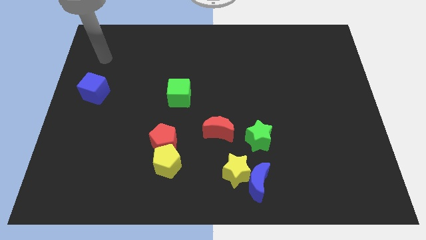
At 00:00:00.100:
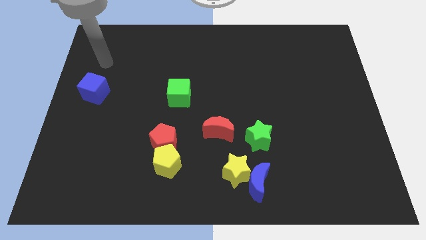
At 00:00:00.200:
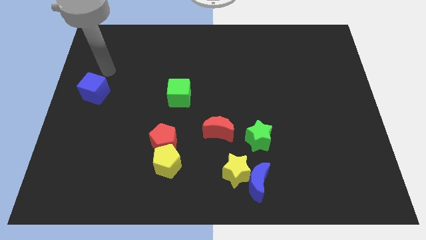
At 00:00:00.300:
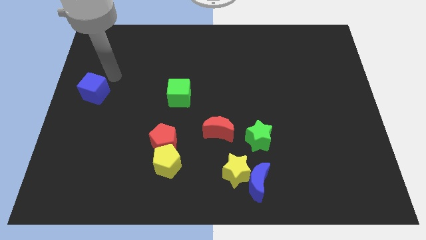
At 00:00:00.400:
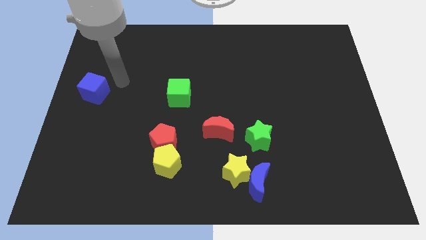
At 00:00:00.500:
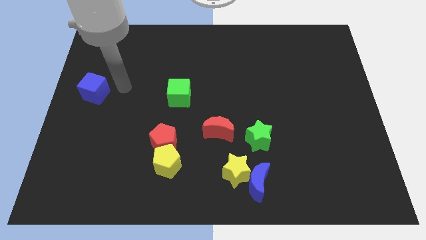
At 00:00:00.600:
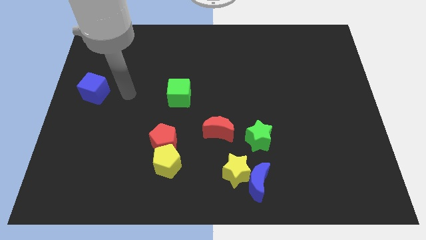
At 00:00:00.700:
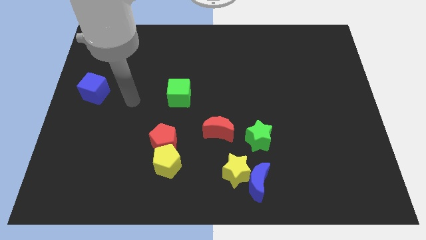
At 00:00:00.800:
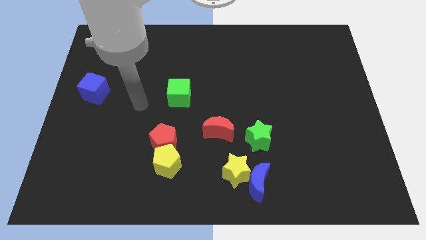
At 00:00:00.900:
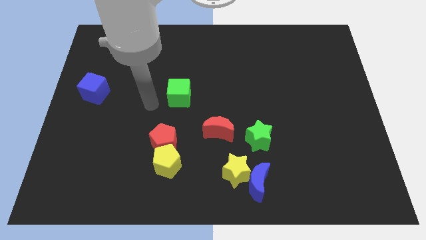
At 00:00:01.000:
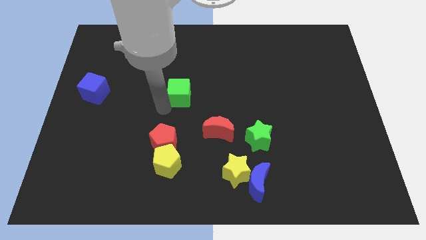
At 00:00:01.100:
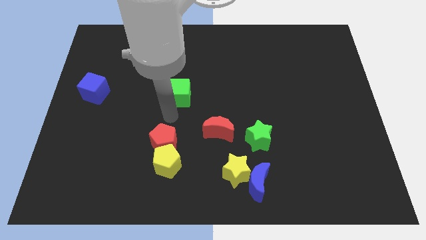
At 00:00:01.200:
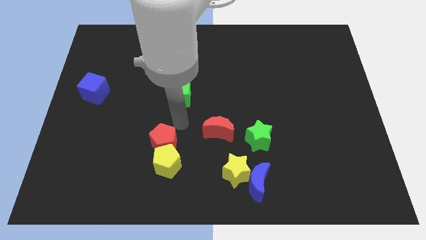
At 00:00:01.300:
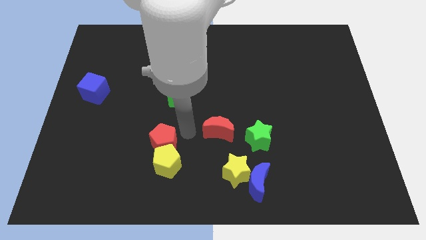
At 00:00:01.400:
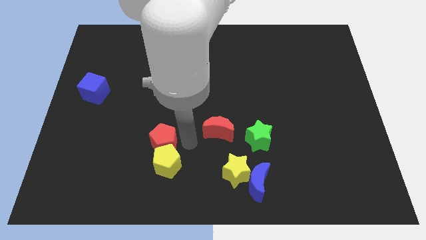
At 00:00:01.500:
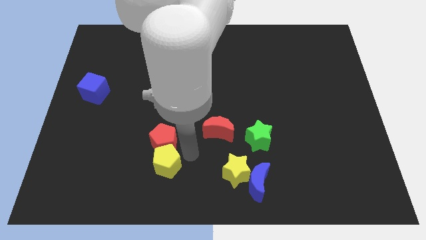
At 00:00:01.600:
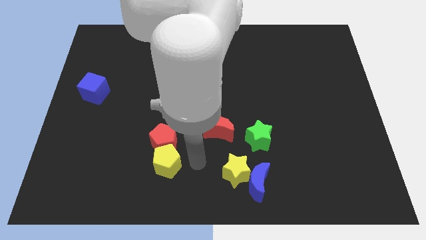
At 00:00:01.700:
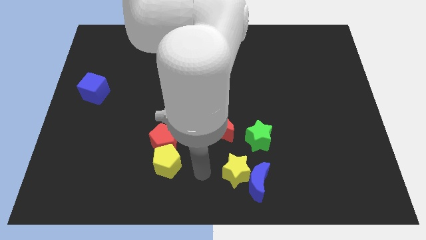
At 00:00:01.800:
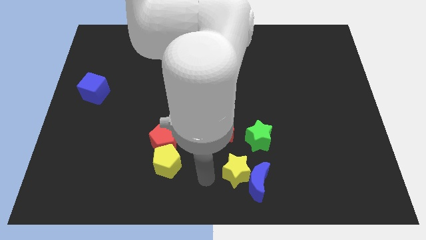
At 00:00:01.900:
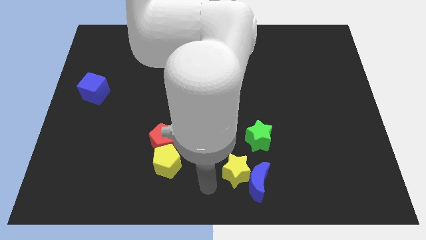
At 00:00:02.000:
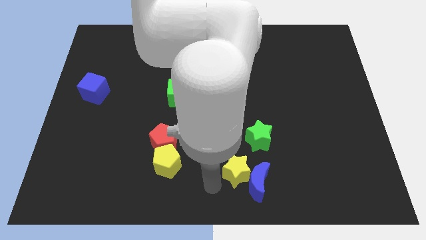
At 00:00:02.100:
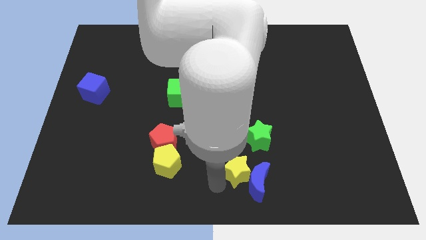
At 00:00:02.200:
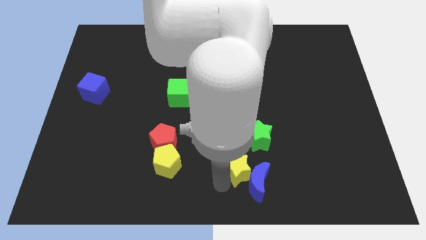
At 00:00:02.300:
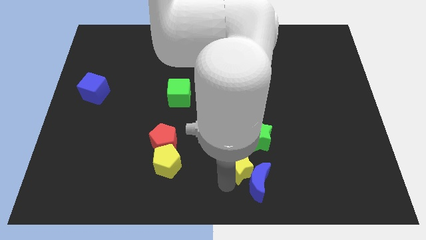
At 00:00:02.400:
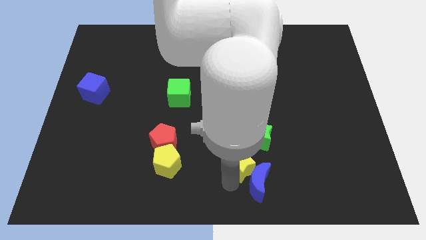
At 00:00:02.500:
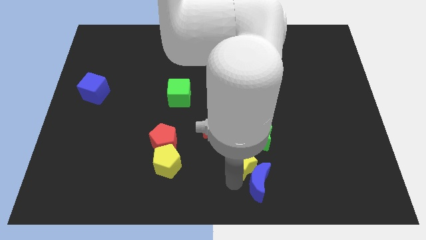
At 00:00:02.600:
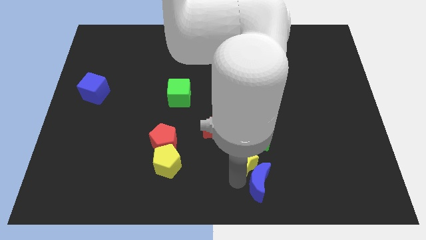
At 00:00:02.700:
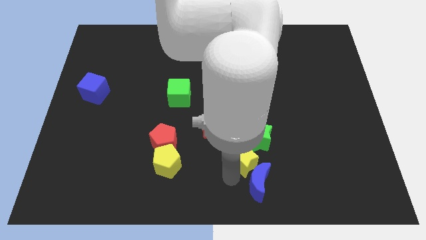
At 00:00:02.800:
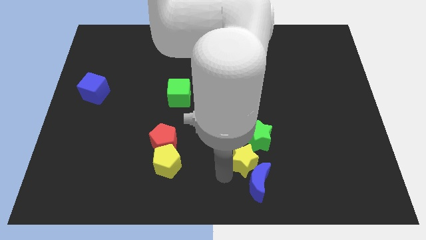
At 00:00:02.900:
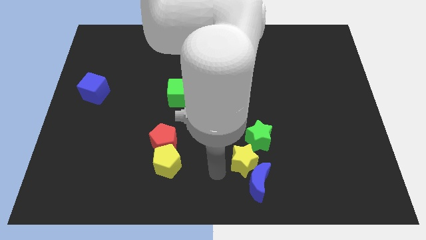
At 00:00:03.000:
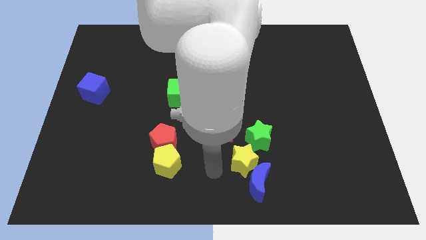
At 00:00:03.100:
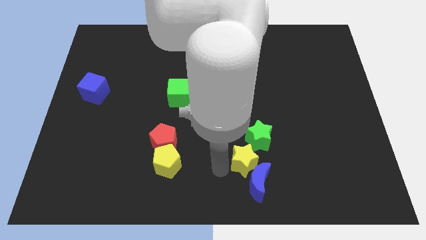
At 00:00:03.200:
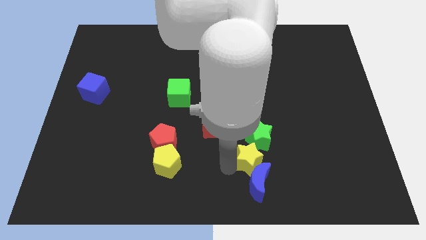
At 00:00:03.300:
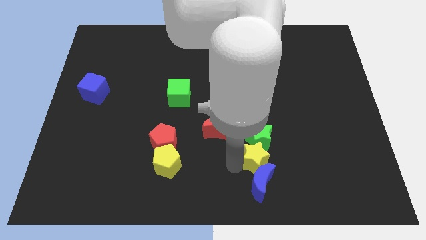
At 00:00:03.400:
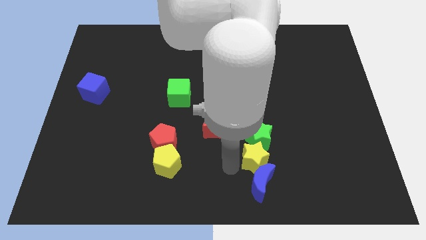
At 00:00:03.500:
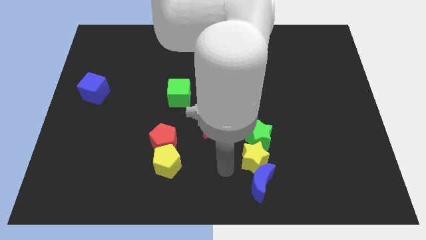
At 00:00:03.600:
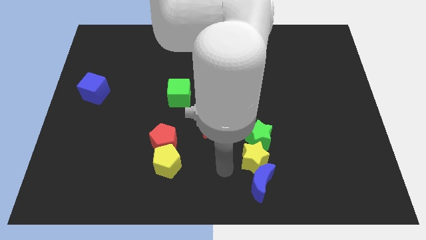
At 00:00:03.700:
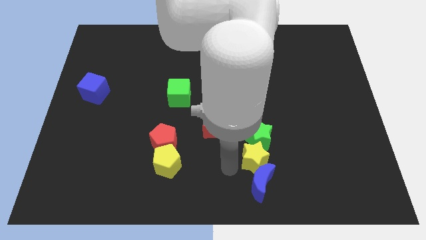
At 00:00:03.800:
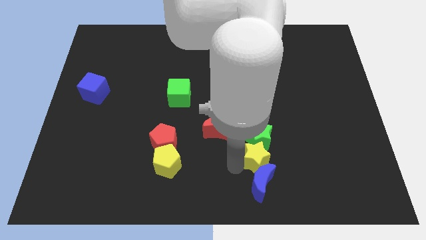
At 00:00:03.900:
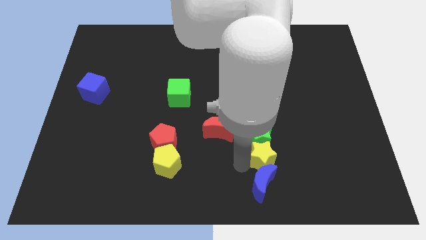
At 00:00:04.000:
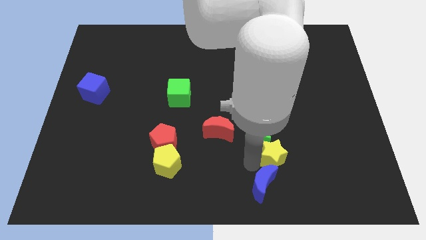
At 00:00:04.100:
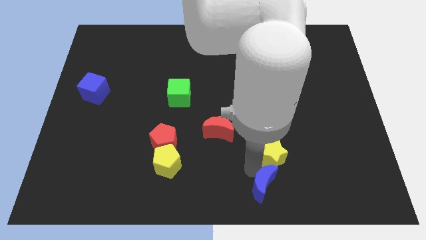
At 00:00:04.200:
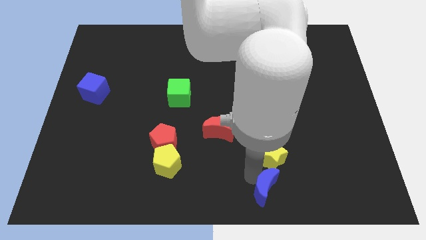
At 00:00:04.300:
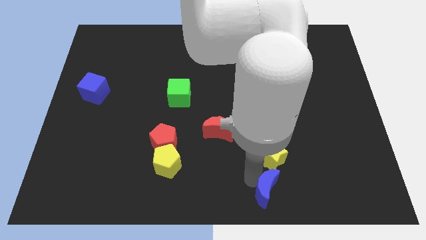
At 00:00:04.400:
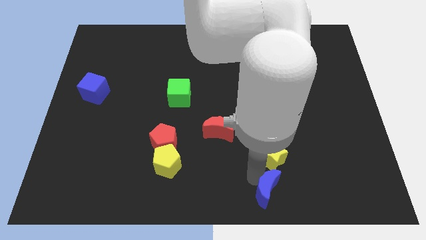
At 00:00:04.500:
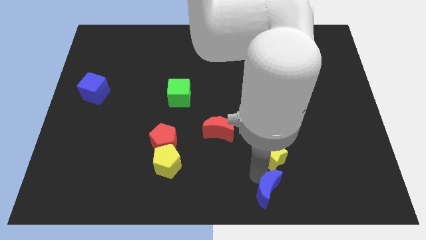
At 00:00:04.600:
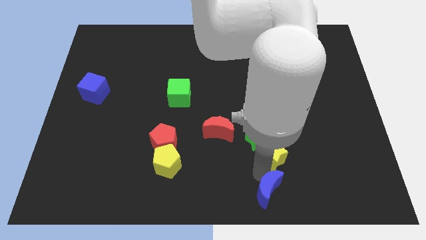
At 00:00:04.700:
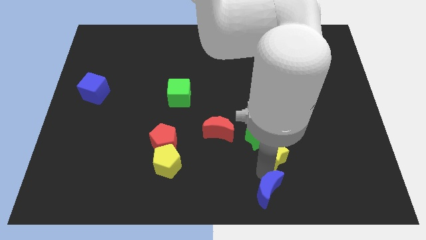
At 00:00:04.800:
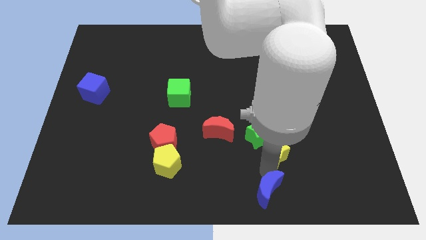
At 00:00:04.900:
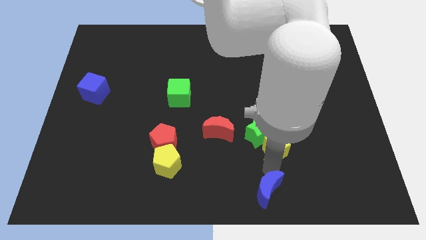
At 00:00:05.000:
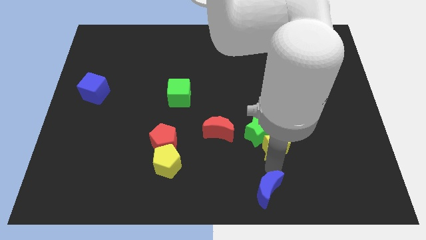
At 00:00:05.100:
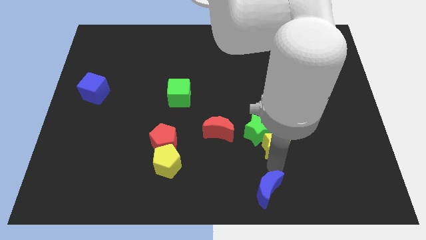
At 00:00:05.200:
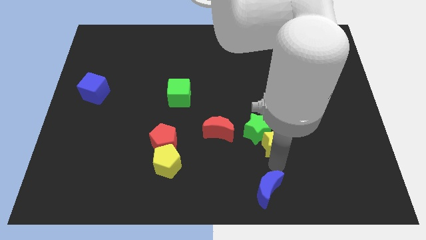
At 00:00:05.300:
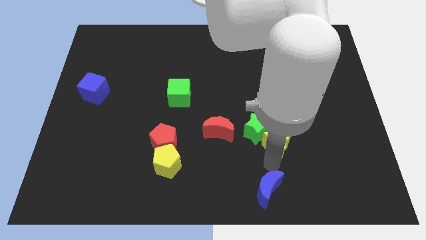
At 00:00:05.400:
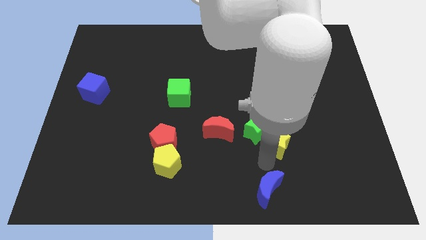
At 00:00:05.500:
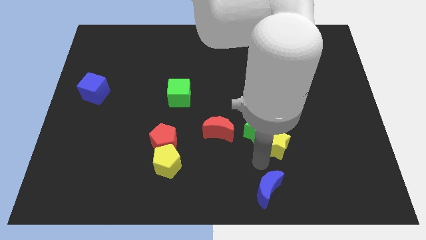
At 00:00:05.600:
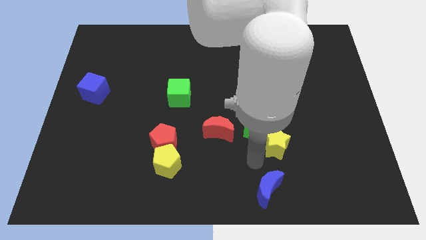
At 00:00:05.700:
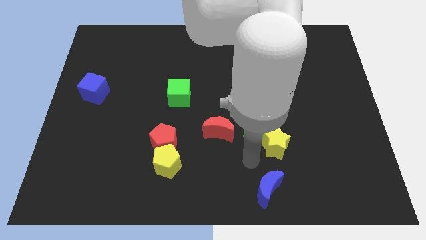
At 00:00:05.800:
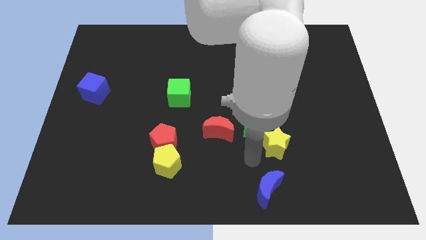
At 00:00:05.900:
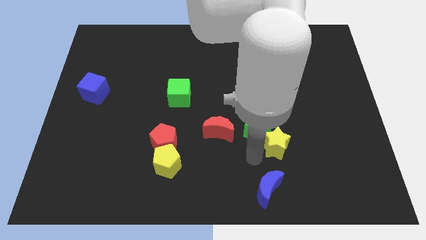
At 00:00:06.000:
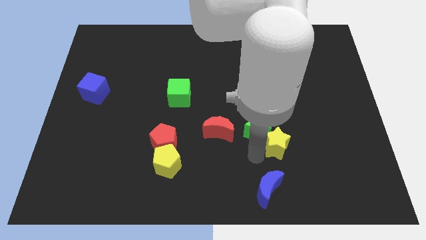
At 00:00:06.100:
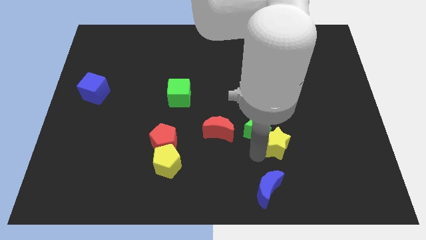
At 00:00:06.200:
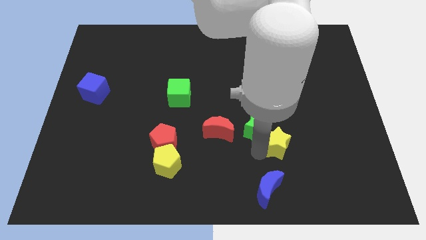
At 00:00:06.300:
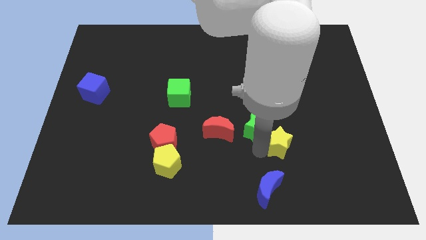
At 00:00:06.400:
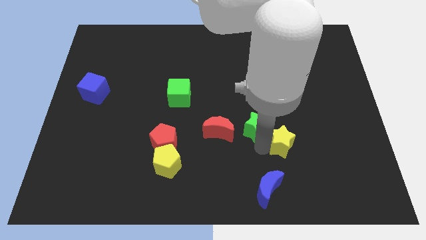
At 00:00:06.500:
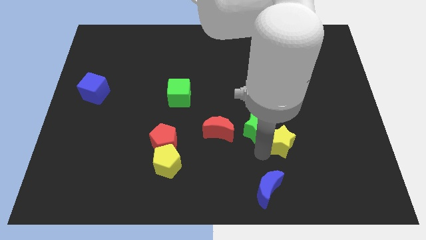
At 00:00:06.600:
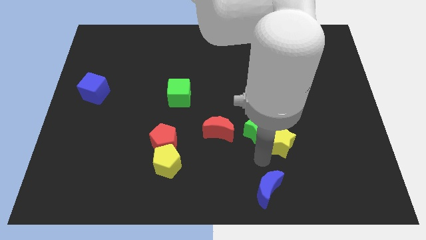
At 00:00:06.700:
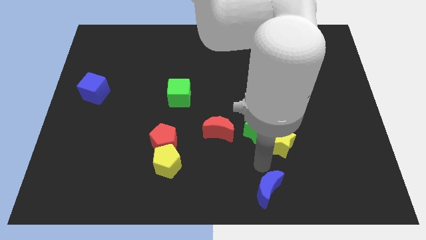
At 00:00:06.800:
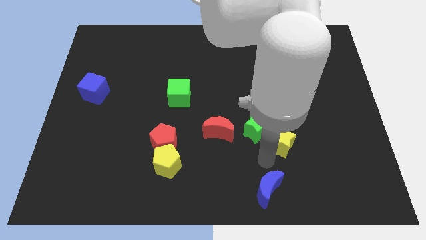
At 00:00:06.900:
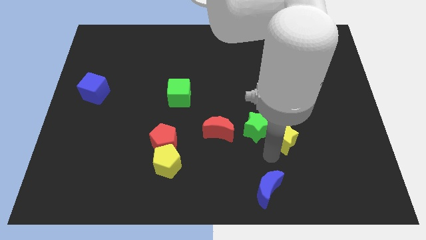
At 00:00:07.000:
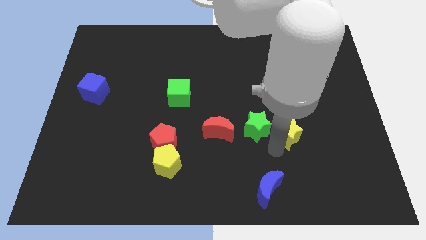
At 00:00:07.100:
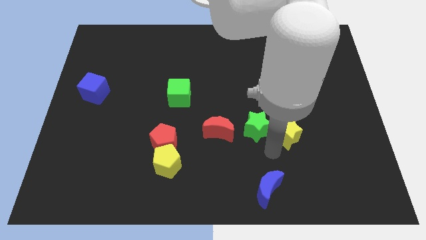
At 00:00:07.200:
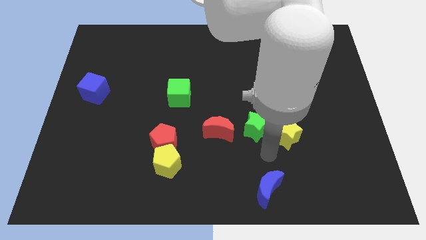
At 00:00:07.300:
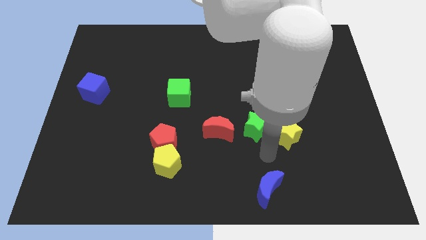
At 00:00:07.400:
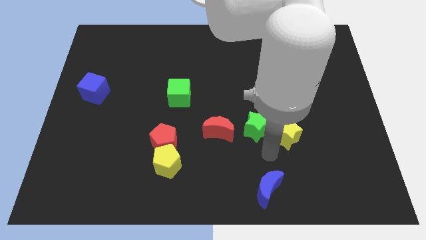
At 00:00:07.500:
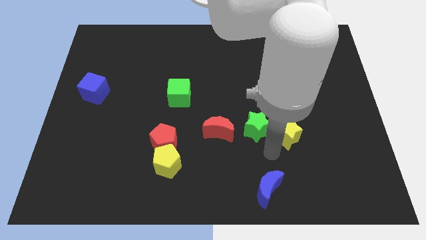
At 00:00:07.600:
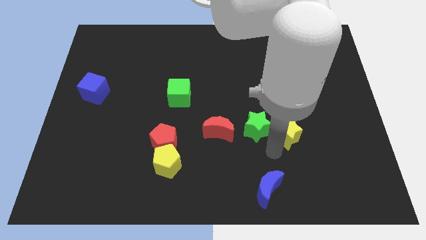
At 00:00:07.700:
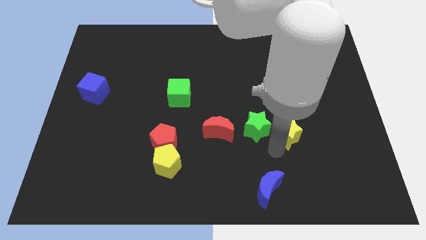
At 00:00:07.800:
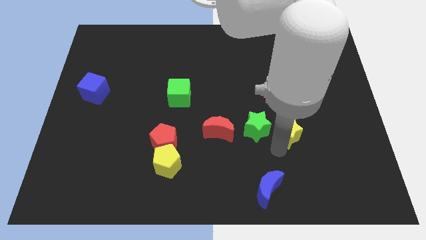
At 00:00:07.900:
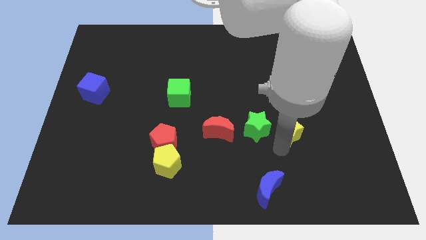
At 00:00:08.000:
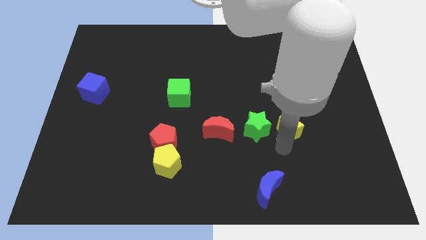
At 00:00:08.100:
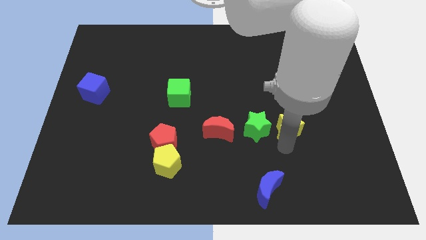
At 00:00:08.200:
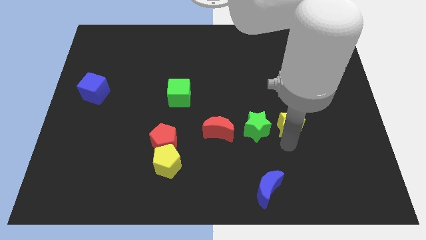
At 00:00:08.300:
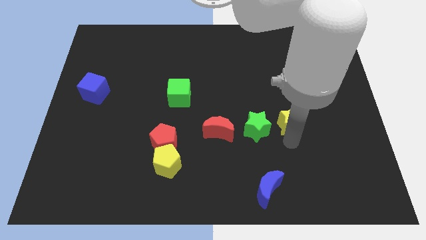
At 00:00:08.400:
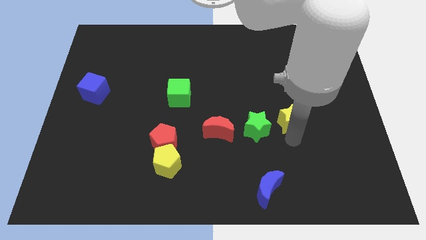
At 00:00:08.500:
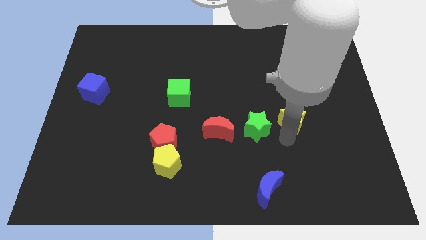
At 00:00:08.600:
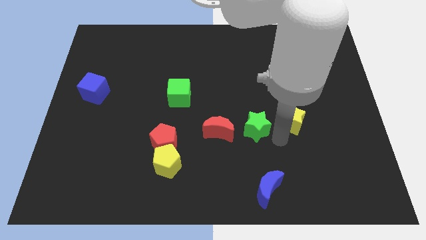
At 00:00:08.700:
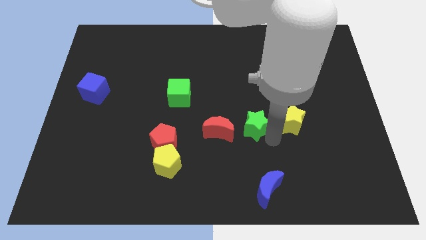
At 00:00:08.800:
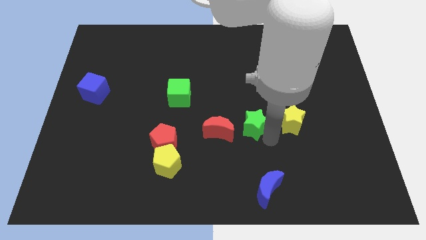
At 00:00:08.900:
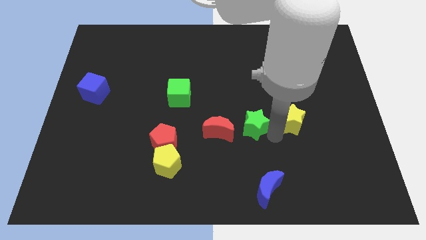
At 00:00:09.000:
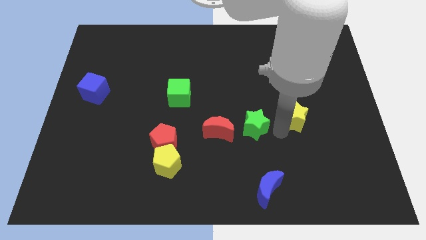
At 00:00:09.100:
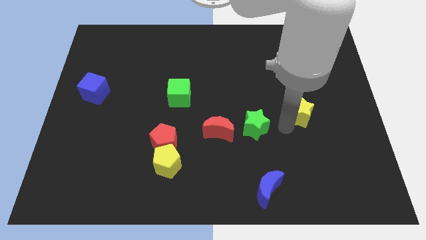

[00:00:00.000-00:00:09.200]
push the yellow star upwards and then right
